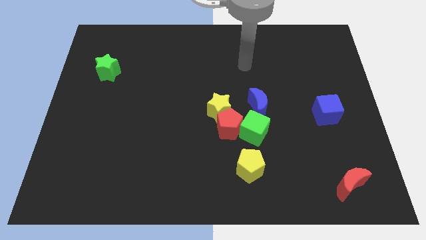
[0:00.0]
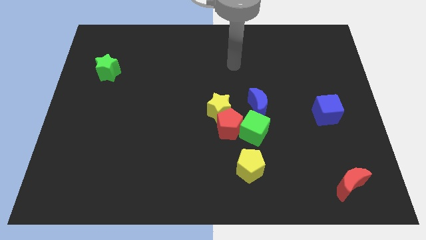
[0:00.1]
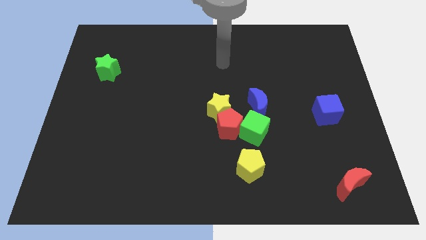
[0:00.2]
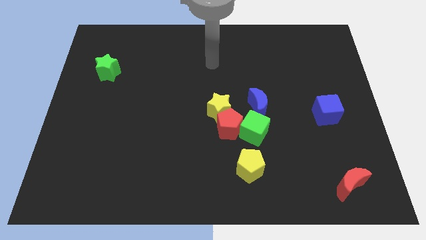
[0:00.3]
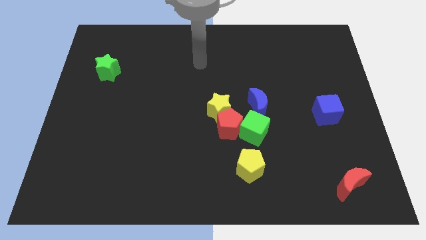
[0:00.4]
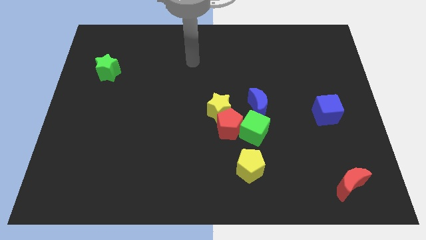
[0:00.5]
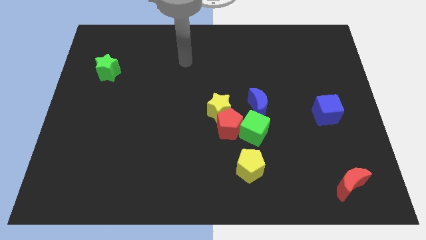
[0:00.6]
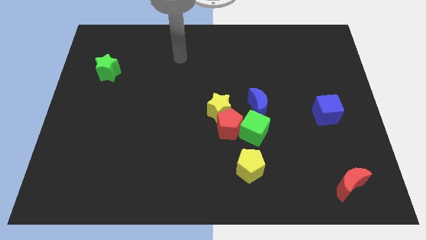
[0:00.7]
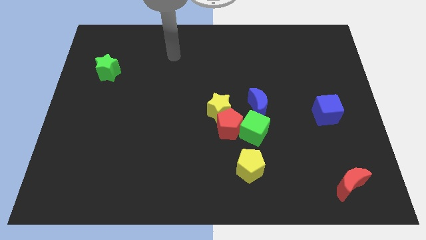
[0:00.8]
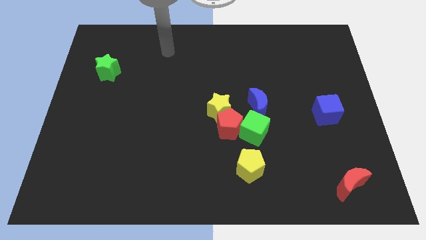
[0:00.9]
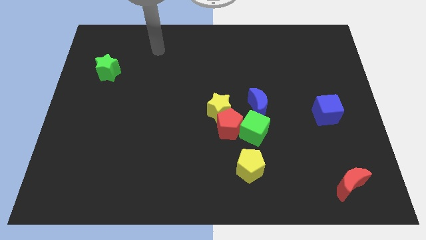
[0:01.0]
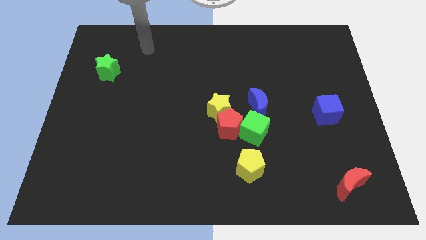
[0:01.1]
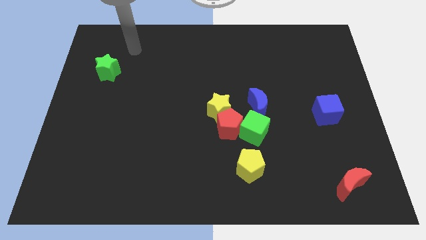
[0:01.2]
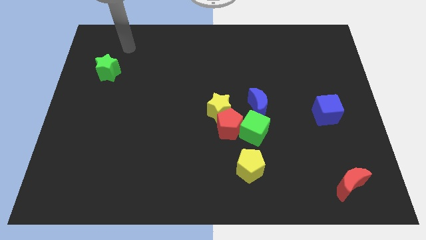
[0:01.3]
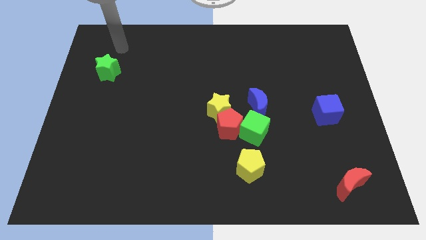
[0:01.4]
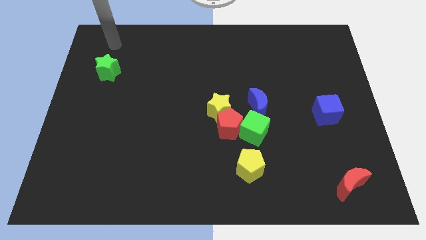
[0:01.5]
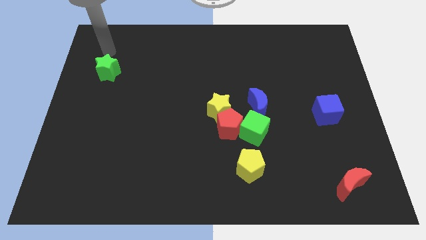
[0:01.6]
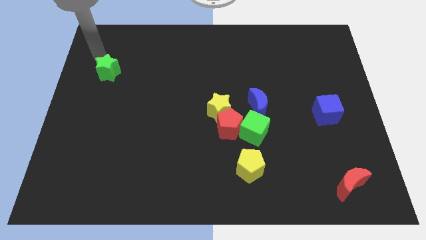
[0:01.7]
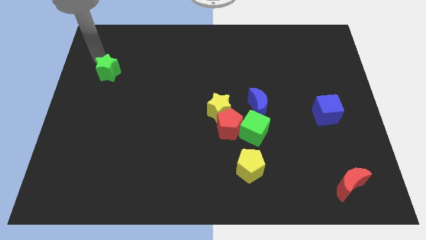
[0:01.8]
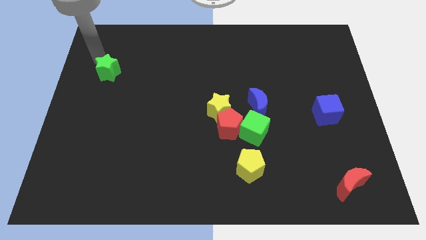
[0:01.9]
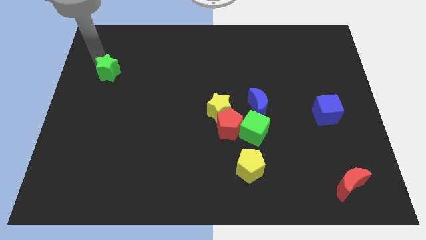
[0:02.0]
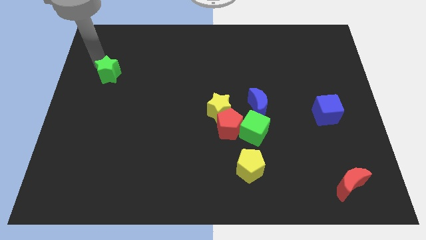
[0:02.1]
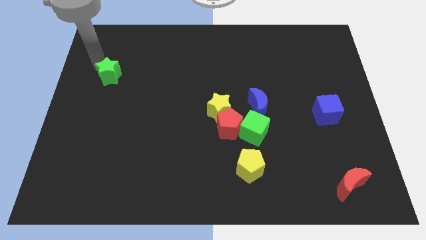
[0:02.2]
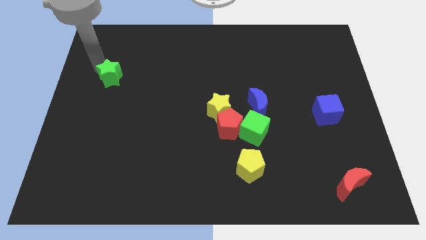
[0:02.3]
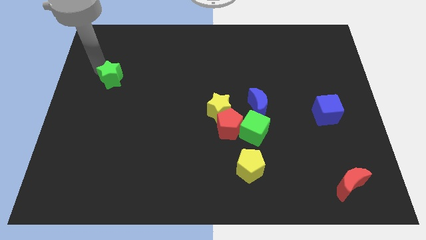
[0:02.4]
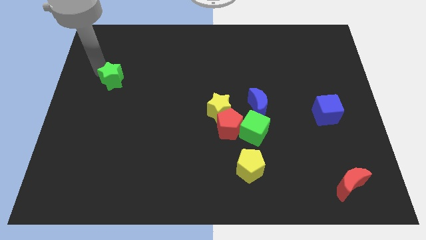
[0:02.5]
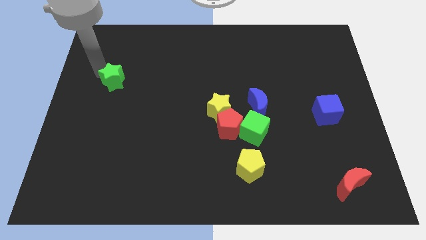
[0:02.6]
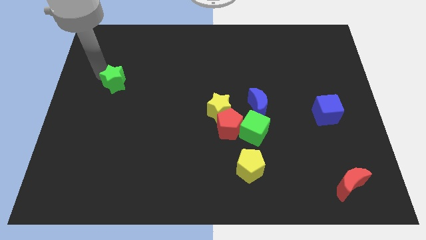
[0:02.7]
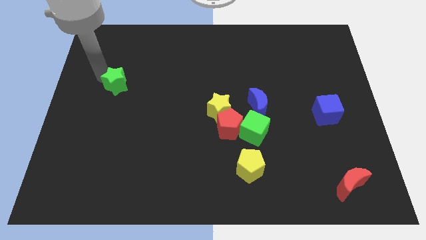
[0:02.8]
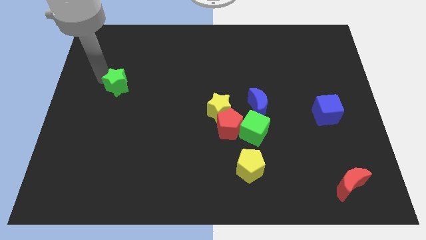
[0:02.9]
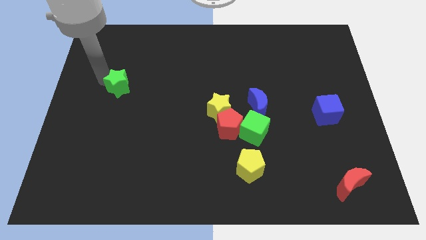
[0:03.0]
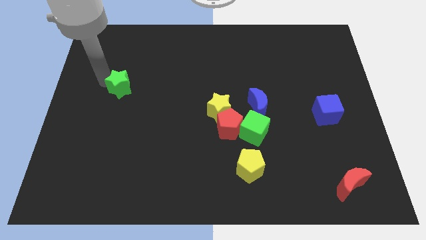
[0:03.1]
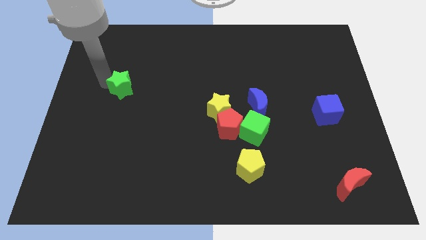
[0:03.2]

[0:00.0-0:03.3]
slightly slide the green star down and then to the right

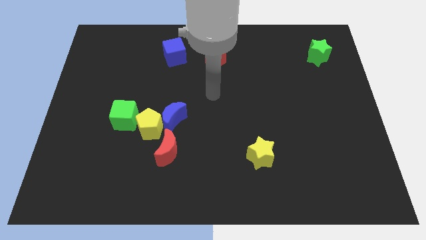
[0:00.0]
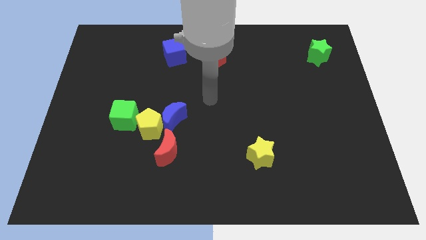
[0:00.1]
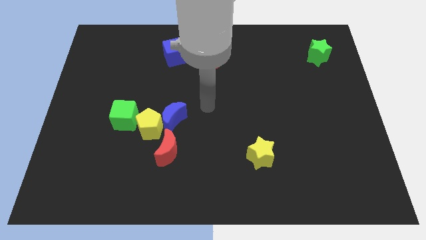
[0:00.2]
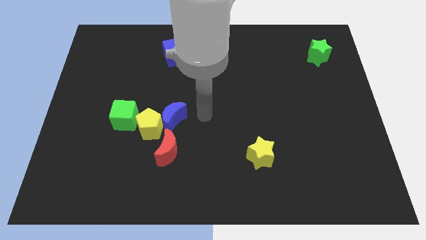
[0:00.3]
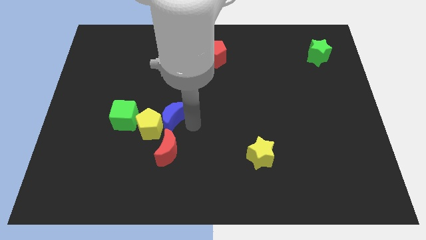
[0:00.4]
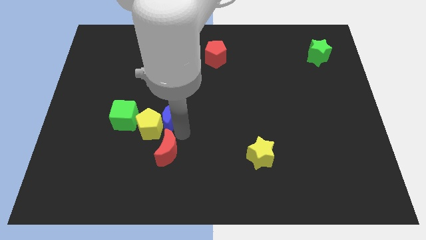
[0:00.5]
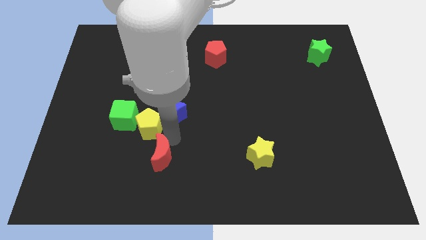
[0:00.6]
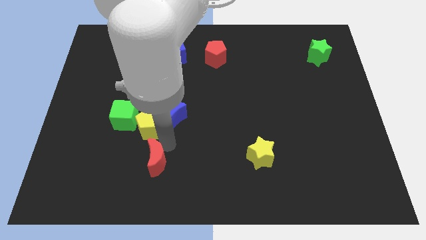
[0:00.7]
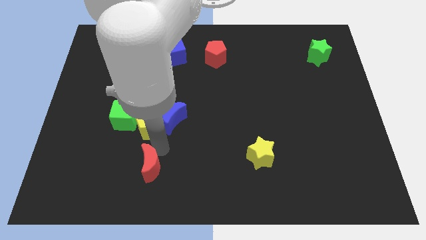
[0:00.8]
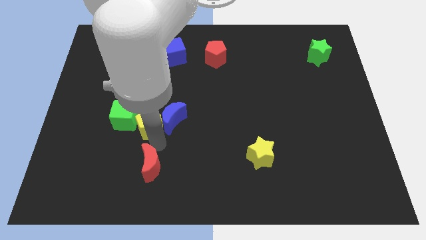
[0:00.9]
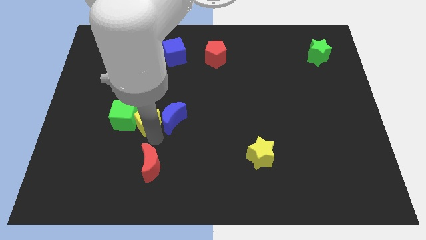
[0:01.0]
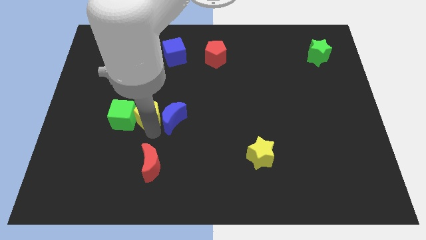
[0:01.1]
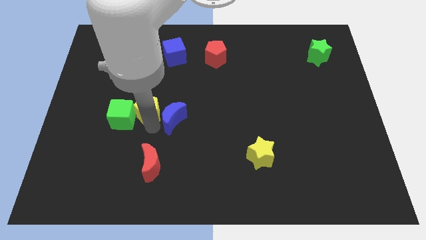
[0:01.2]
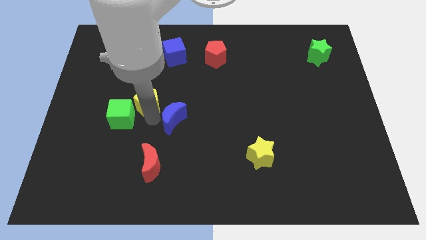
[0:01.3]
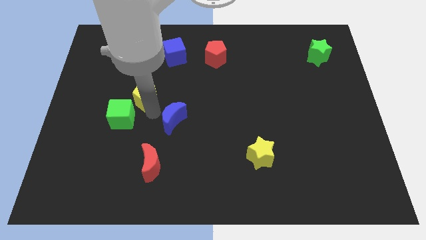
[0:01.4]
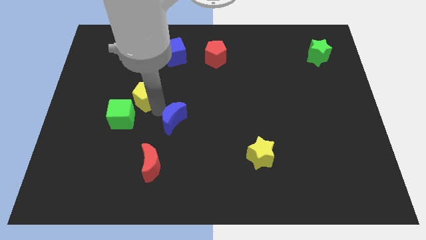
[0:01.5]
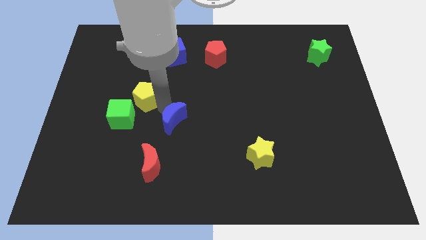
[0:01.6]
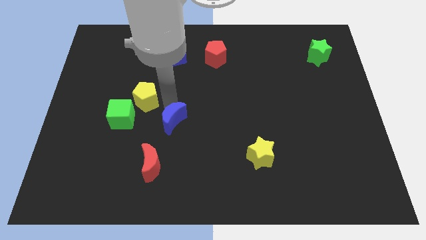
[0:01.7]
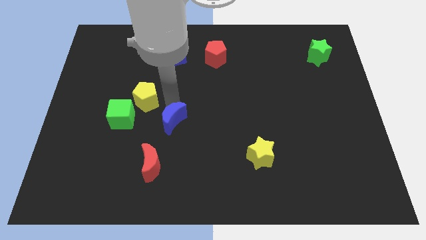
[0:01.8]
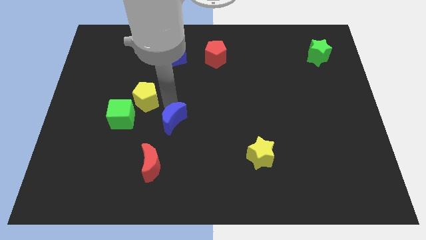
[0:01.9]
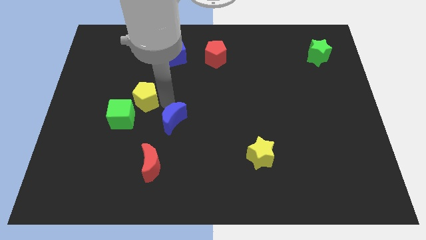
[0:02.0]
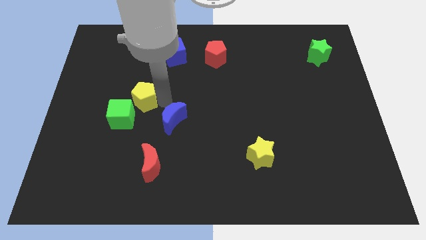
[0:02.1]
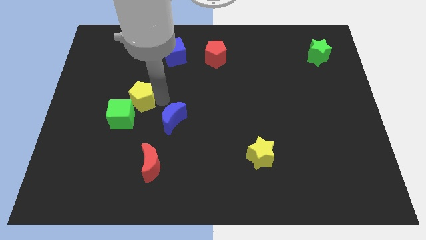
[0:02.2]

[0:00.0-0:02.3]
slide the yellow pentagon upwards and then left somewhat

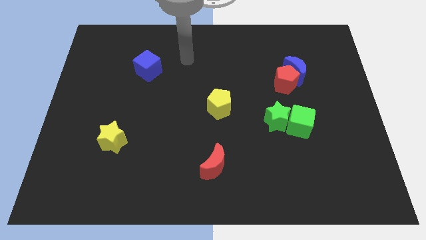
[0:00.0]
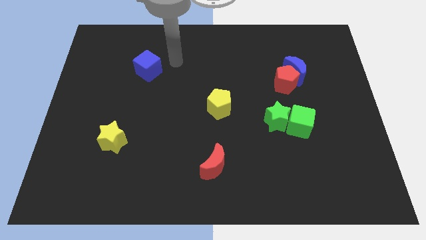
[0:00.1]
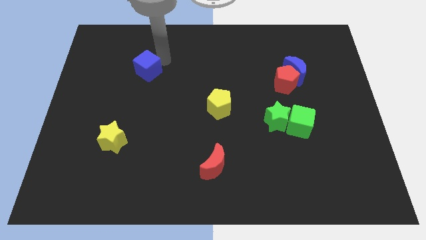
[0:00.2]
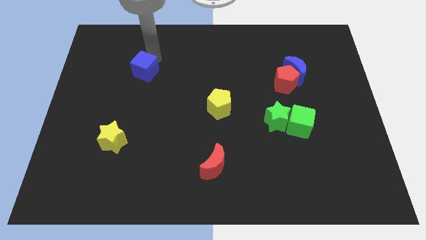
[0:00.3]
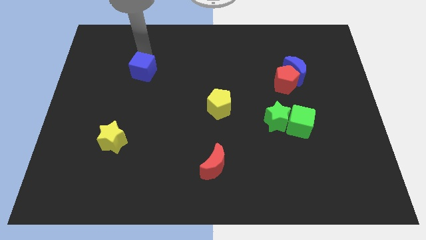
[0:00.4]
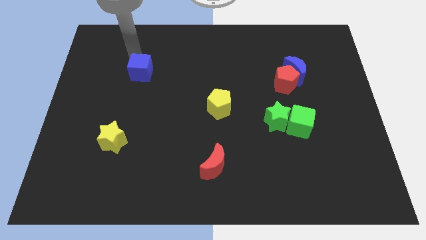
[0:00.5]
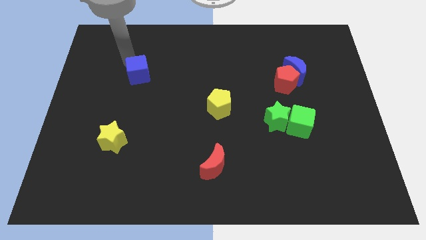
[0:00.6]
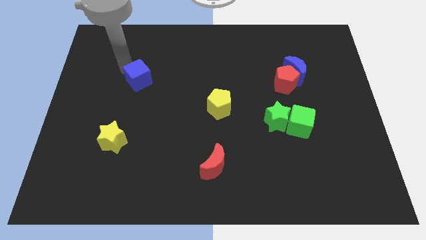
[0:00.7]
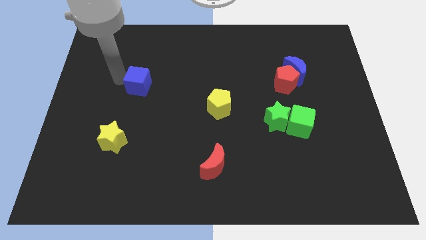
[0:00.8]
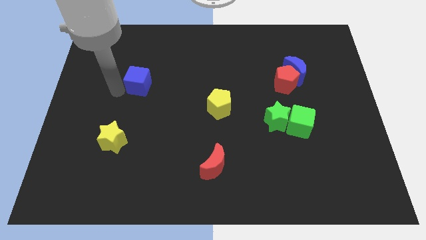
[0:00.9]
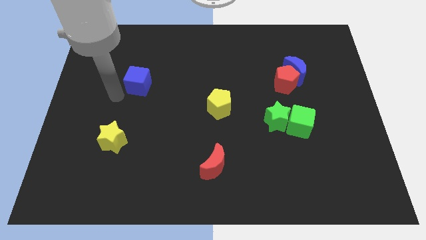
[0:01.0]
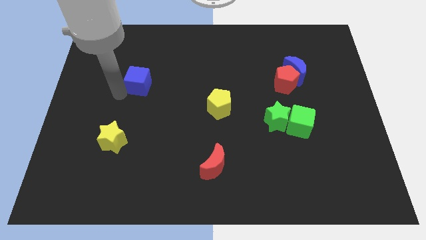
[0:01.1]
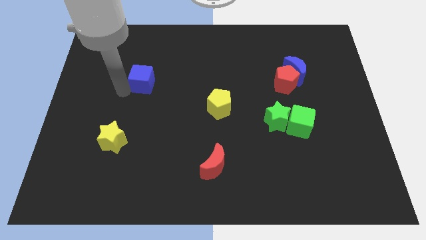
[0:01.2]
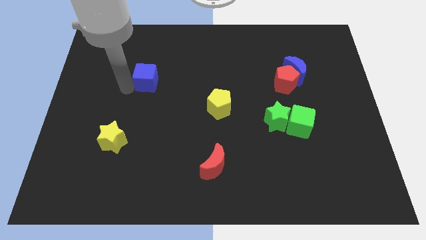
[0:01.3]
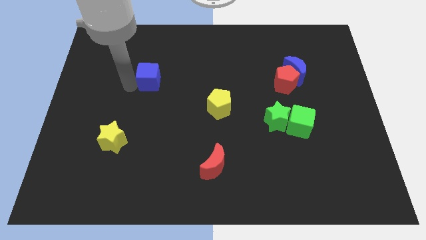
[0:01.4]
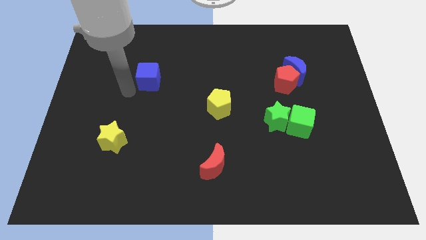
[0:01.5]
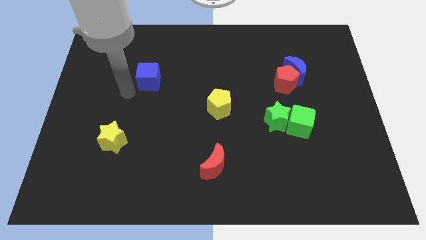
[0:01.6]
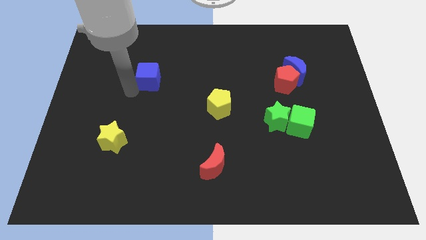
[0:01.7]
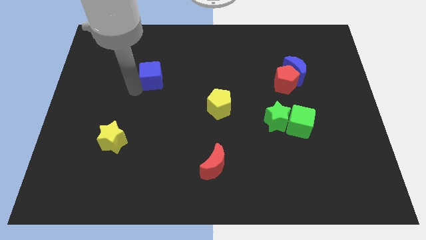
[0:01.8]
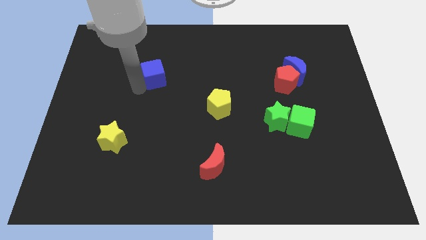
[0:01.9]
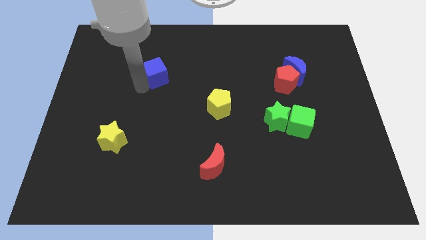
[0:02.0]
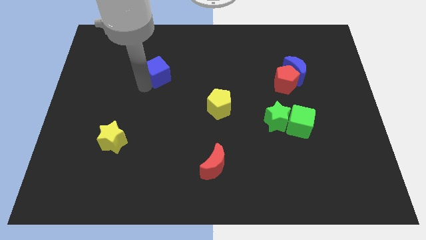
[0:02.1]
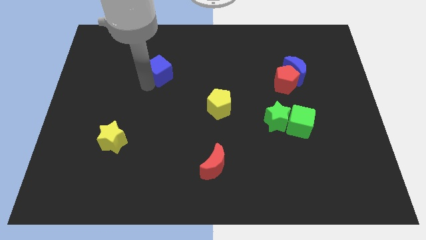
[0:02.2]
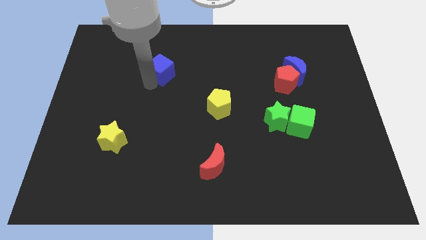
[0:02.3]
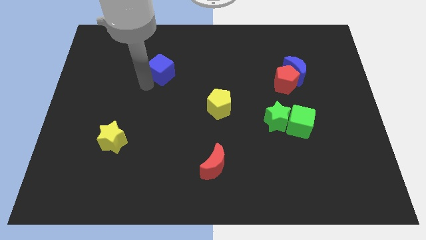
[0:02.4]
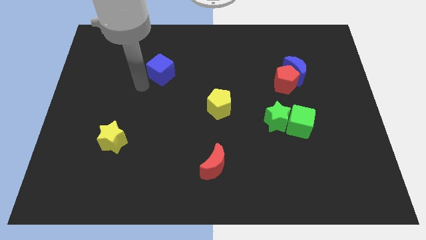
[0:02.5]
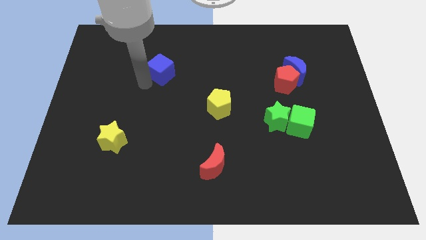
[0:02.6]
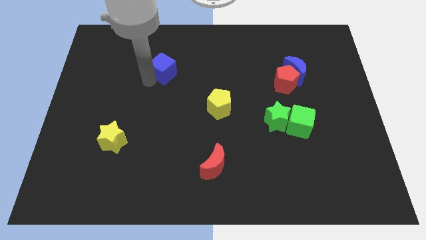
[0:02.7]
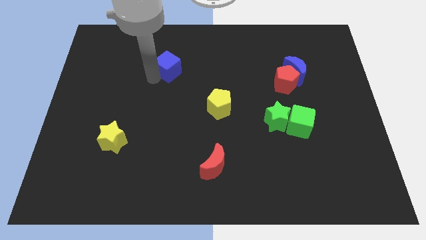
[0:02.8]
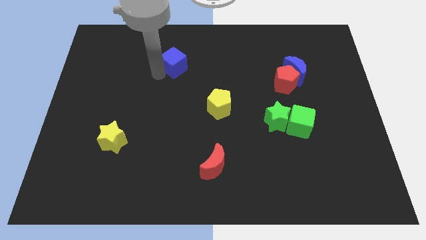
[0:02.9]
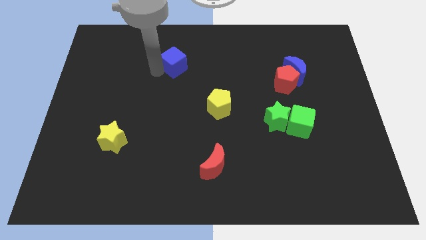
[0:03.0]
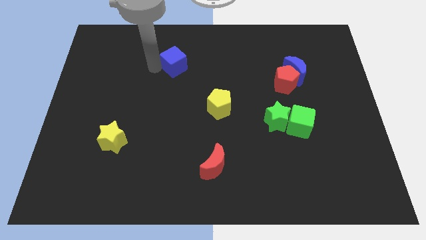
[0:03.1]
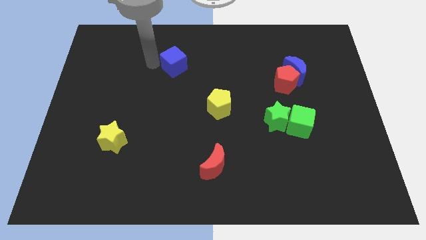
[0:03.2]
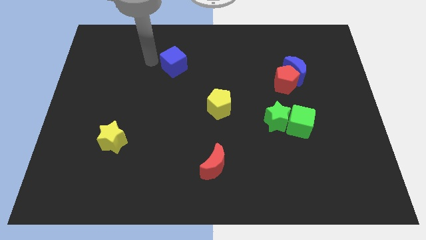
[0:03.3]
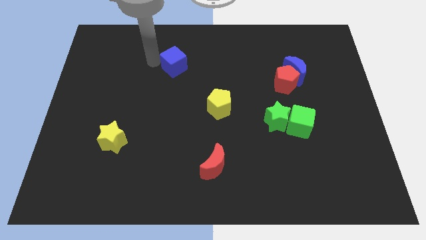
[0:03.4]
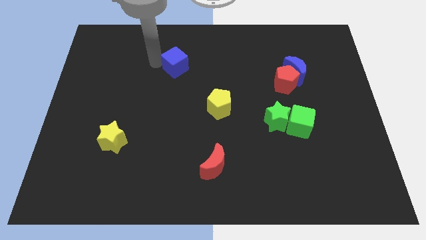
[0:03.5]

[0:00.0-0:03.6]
move the blue cube a little bit right
